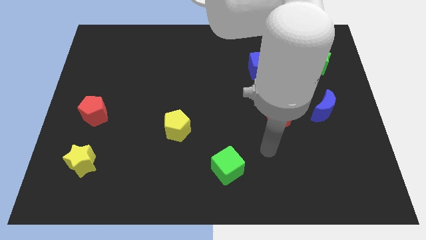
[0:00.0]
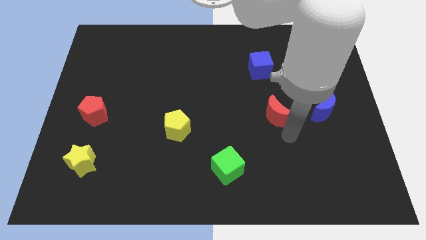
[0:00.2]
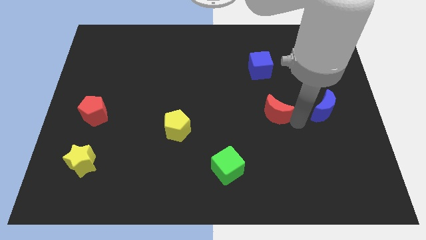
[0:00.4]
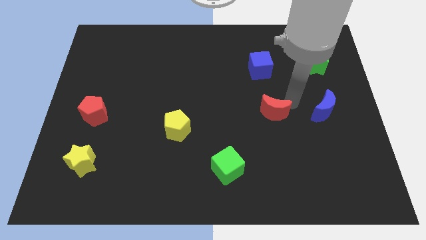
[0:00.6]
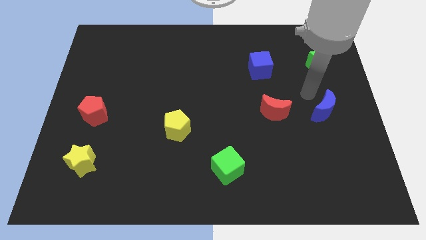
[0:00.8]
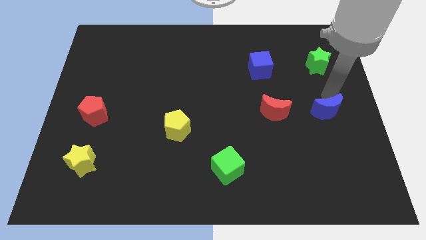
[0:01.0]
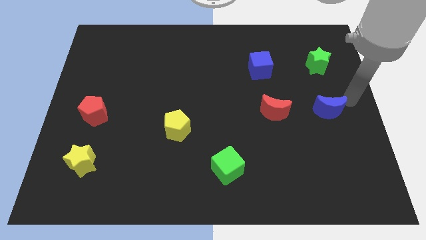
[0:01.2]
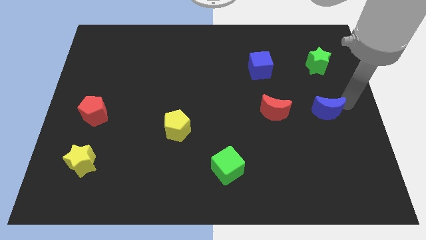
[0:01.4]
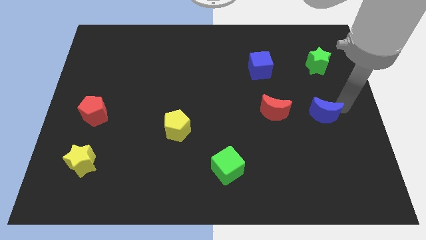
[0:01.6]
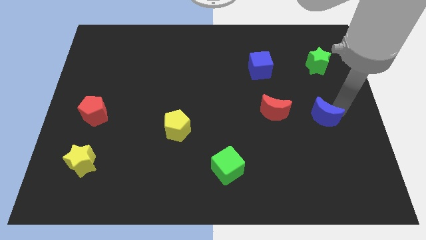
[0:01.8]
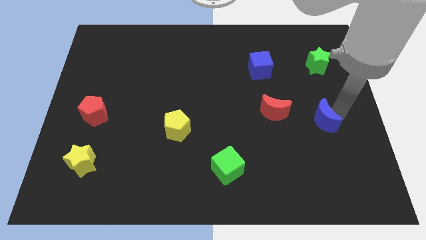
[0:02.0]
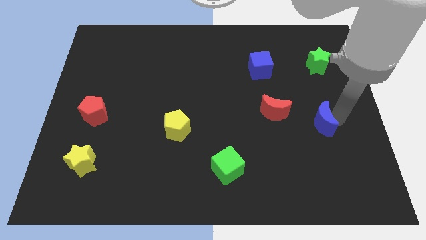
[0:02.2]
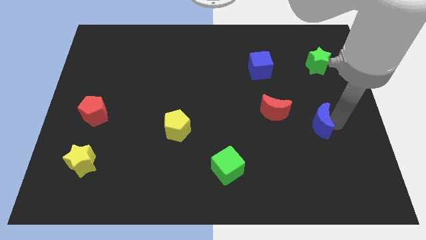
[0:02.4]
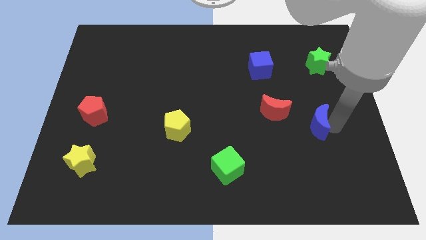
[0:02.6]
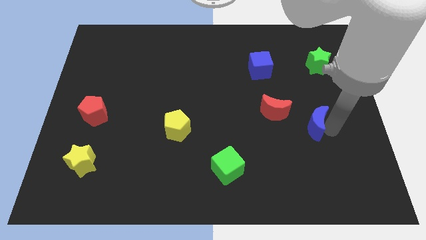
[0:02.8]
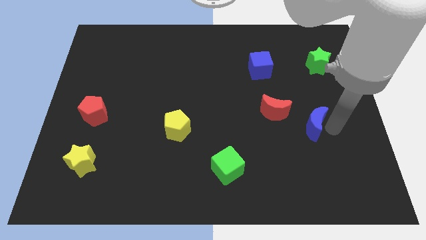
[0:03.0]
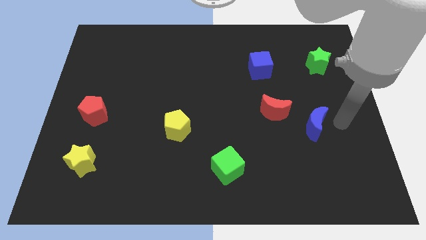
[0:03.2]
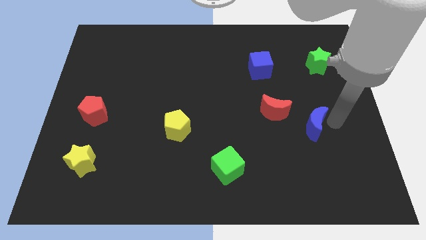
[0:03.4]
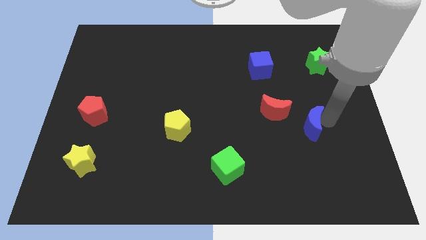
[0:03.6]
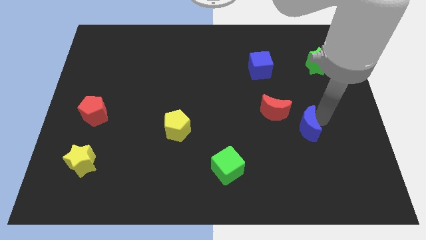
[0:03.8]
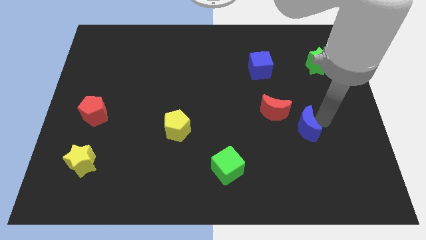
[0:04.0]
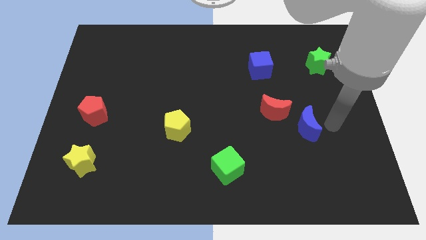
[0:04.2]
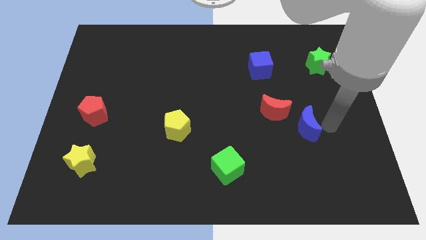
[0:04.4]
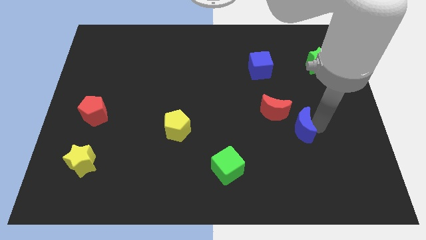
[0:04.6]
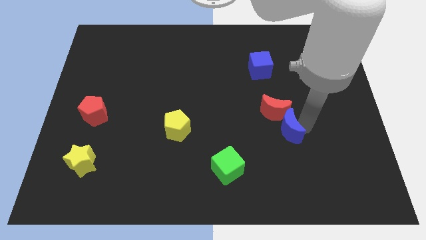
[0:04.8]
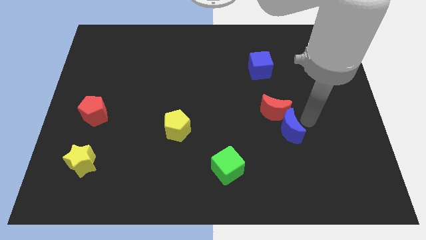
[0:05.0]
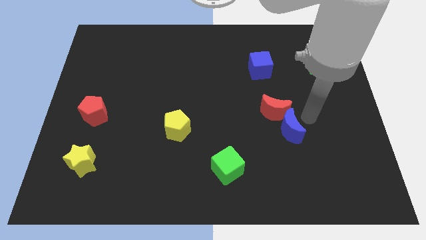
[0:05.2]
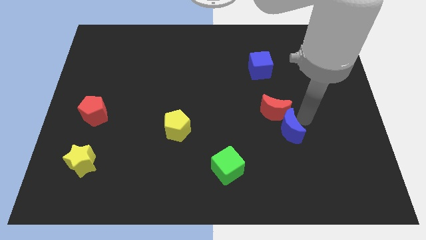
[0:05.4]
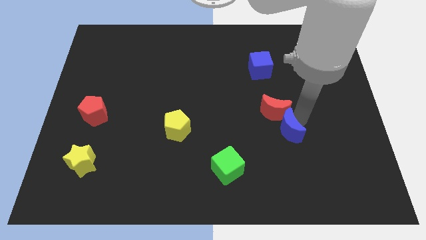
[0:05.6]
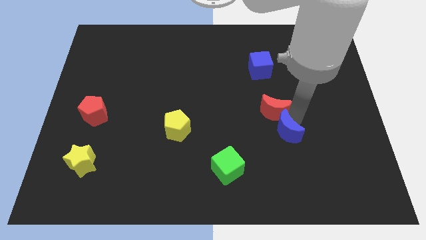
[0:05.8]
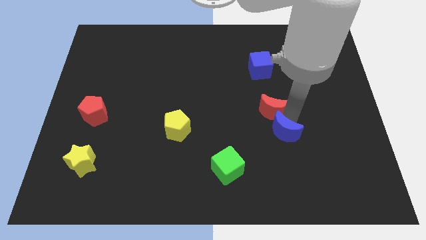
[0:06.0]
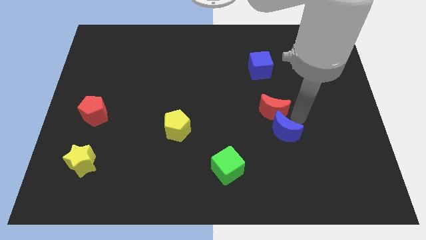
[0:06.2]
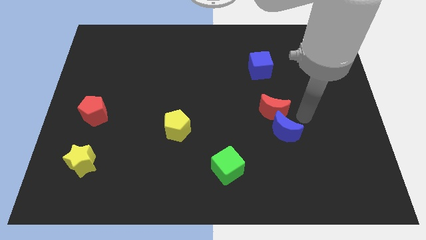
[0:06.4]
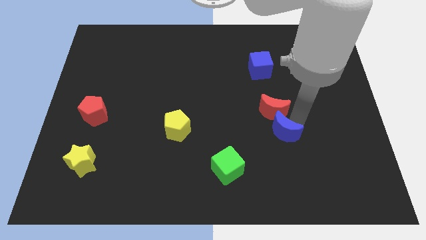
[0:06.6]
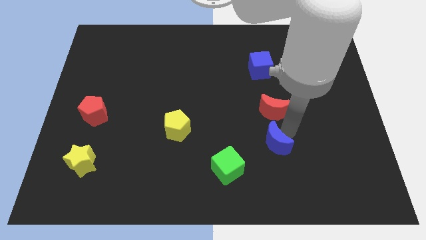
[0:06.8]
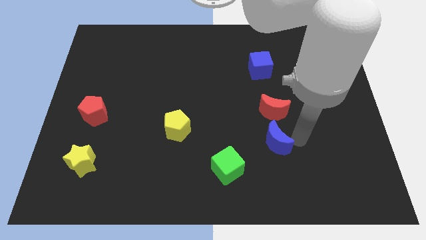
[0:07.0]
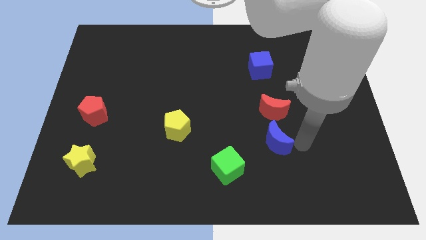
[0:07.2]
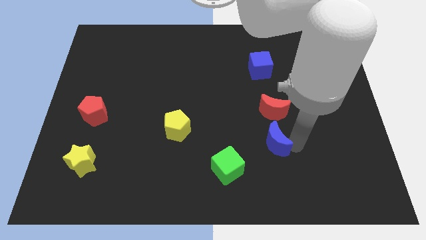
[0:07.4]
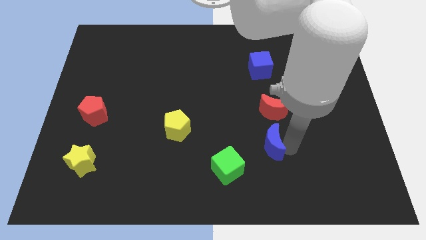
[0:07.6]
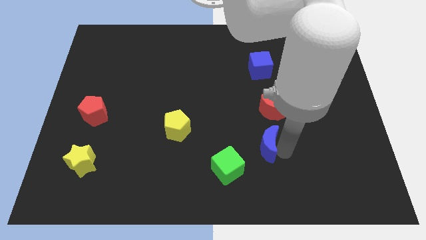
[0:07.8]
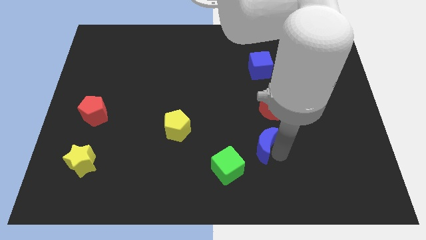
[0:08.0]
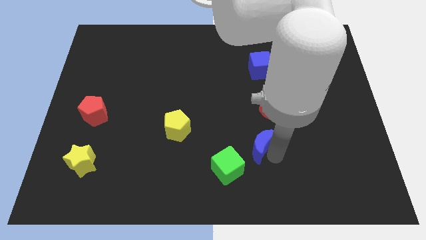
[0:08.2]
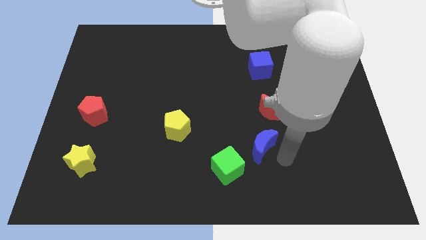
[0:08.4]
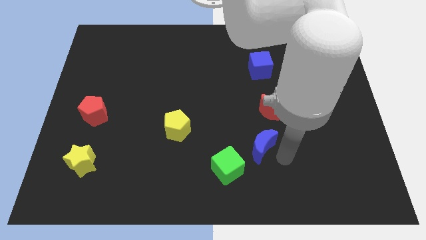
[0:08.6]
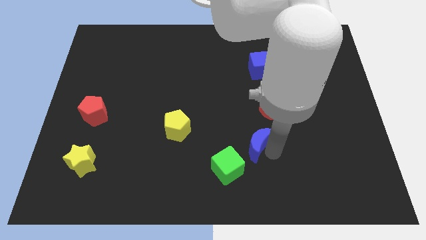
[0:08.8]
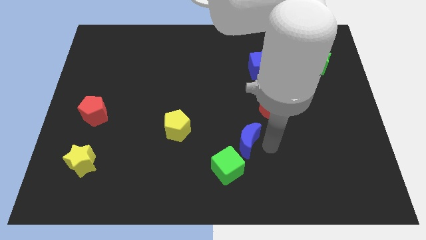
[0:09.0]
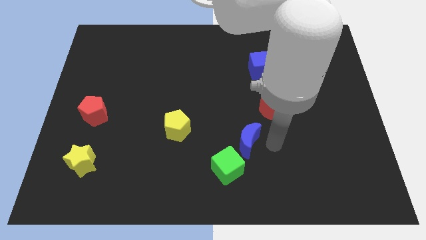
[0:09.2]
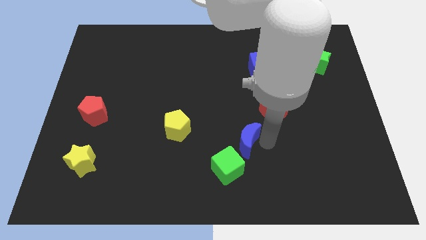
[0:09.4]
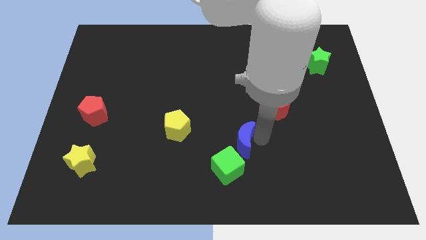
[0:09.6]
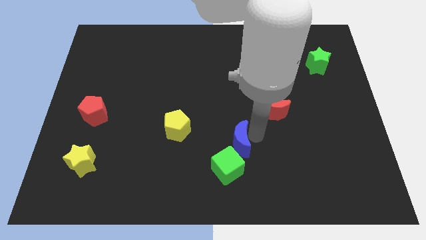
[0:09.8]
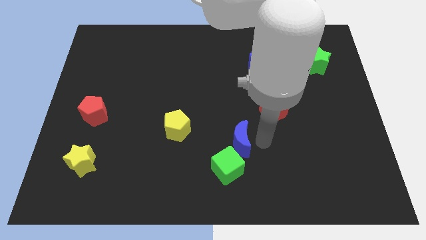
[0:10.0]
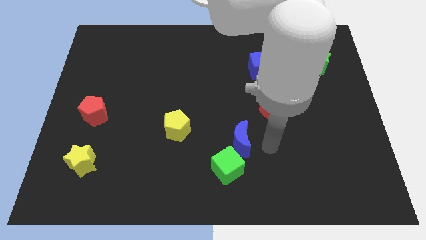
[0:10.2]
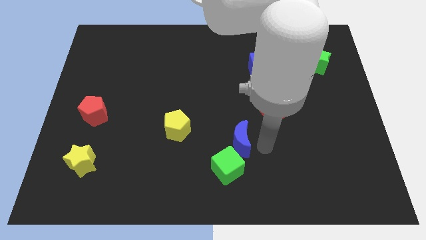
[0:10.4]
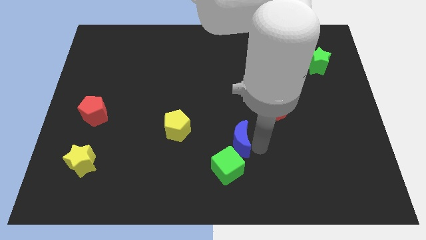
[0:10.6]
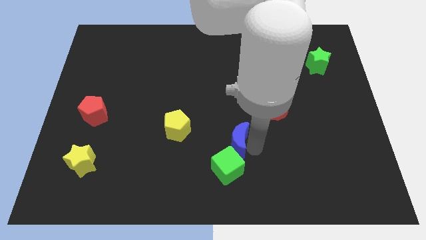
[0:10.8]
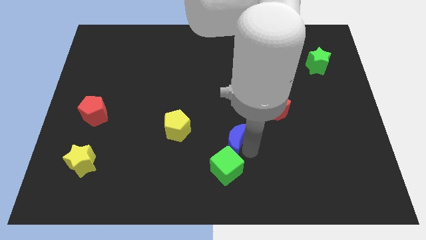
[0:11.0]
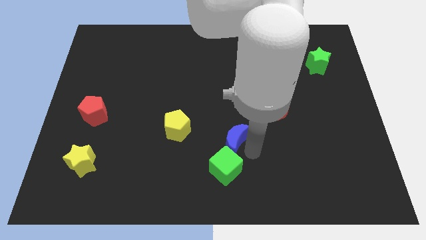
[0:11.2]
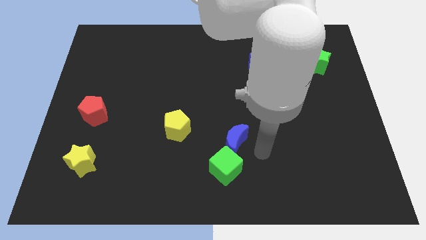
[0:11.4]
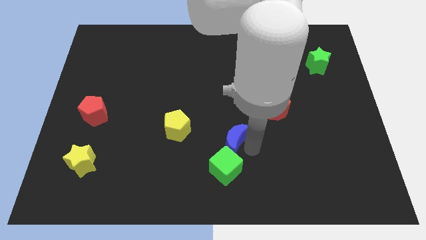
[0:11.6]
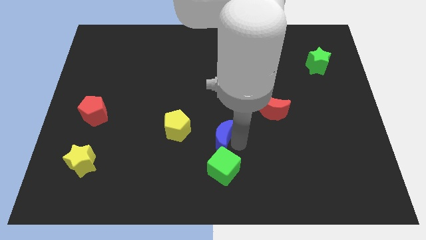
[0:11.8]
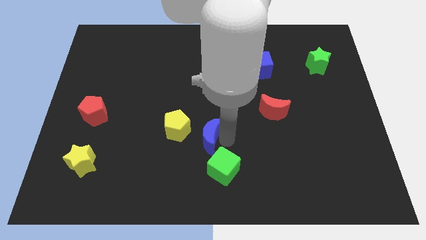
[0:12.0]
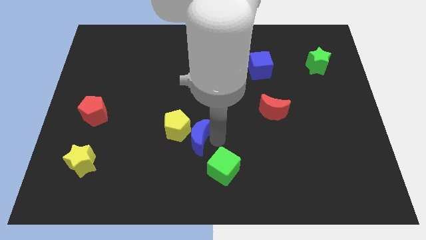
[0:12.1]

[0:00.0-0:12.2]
move the blue moon to the yellow pentagon

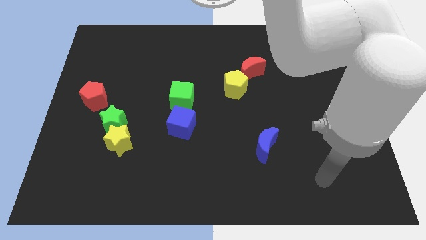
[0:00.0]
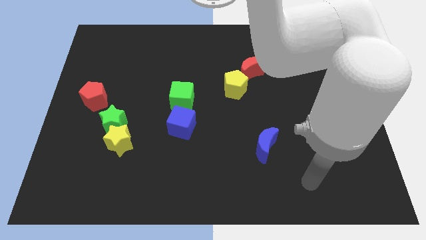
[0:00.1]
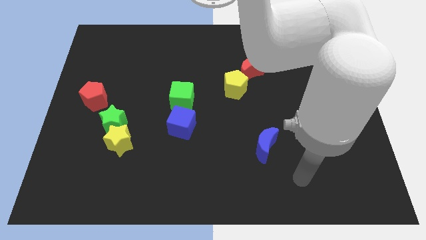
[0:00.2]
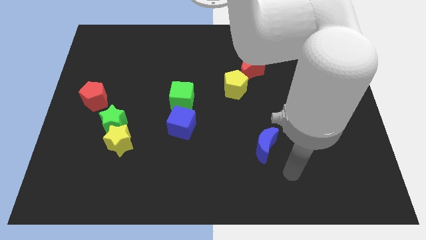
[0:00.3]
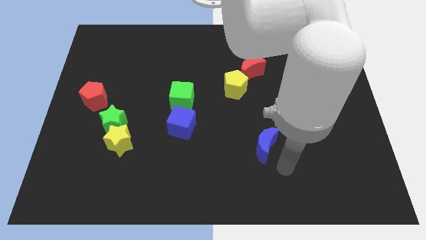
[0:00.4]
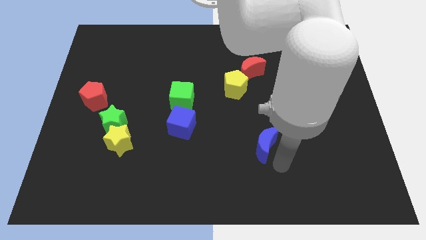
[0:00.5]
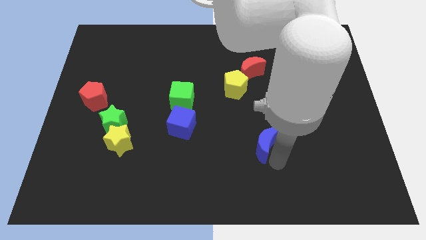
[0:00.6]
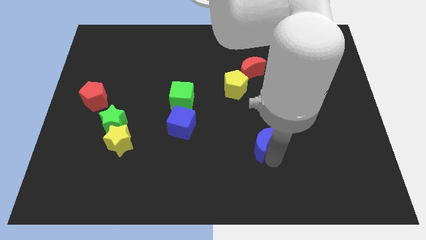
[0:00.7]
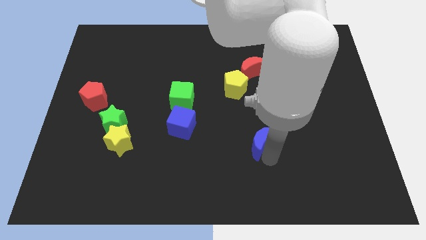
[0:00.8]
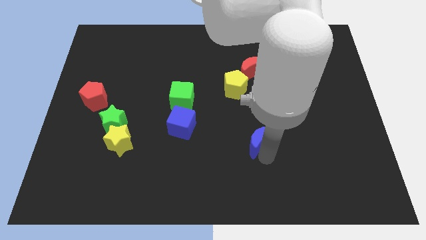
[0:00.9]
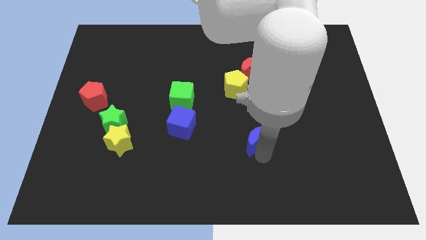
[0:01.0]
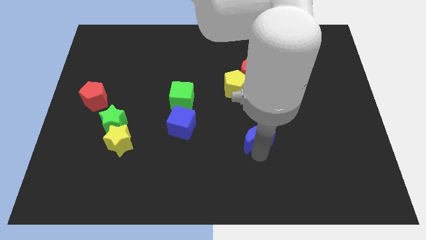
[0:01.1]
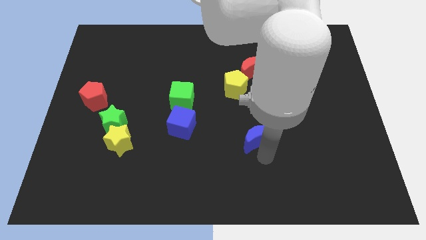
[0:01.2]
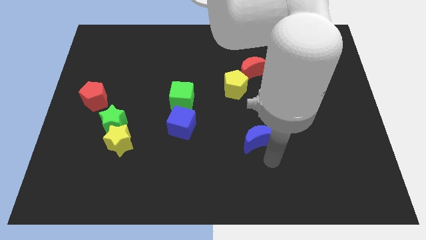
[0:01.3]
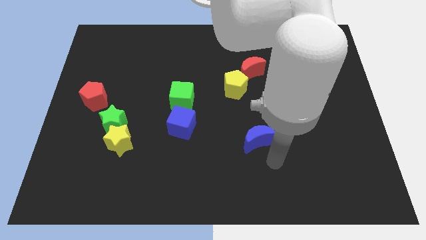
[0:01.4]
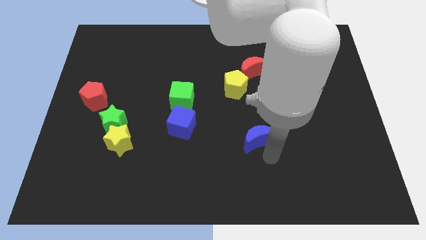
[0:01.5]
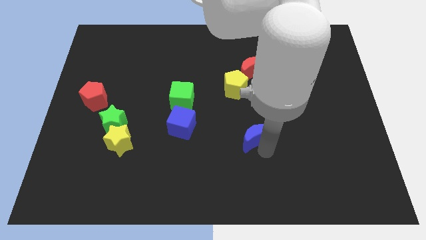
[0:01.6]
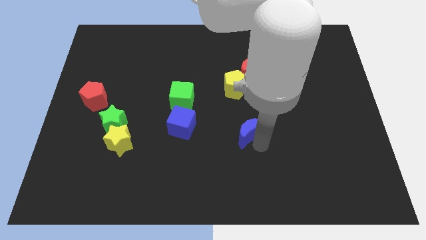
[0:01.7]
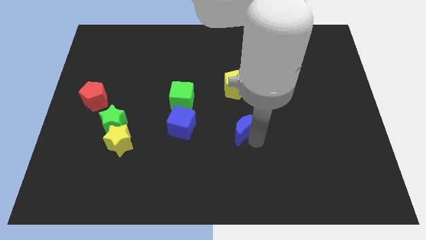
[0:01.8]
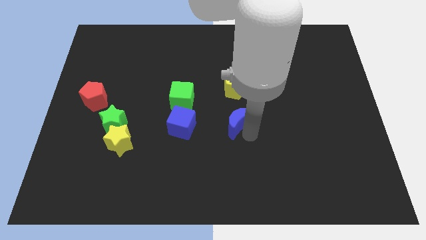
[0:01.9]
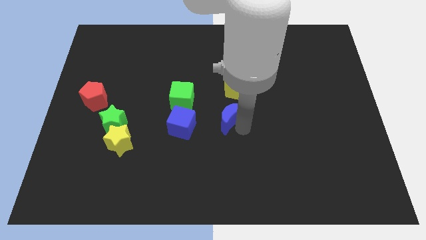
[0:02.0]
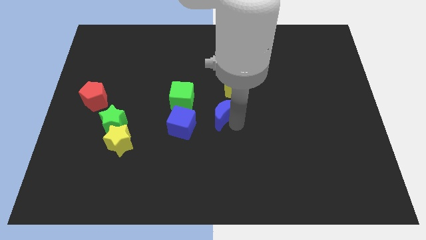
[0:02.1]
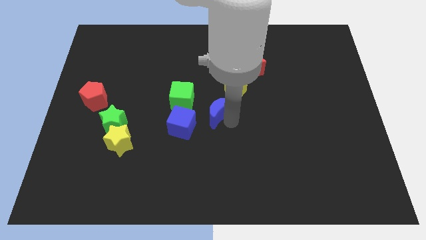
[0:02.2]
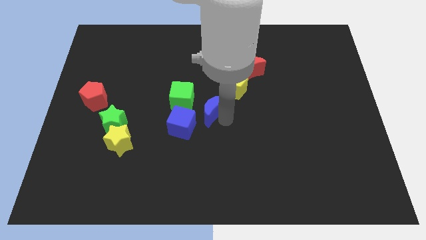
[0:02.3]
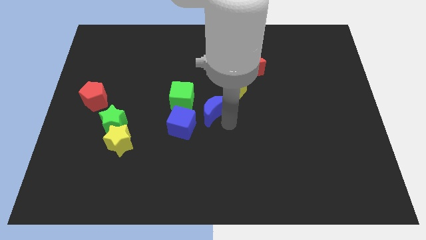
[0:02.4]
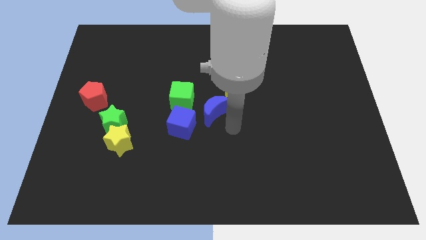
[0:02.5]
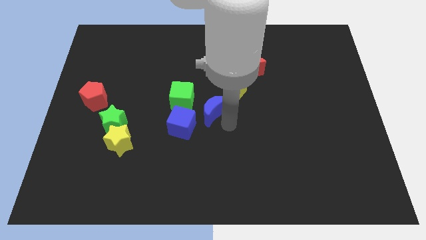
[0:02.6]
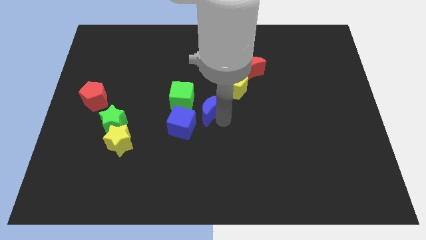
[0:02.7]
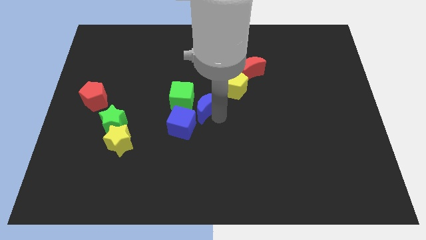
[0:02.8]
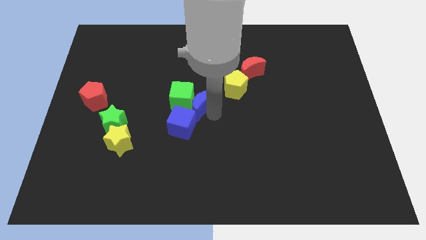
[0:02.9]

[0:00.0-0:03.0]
slide the blue moon close to the green cube
